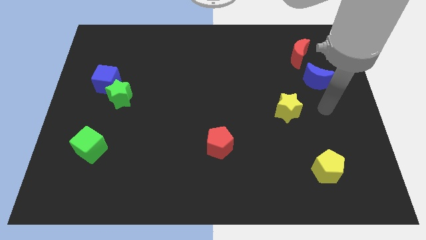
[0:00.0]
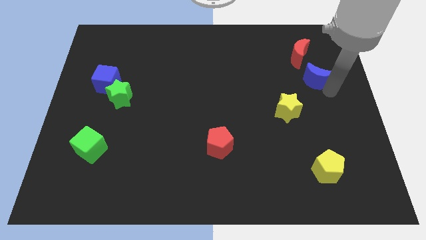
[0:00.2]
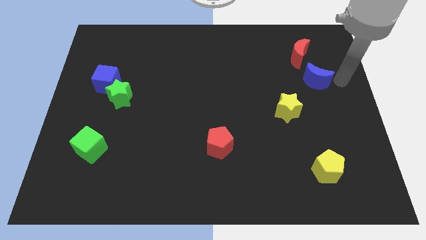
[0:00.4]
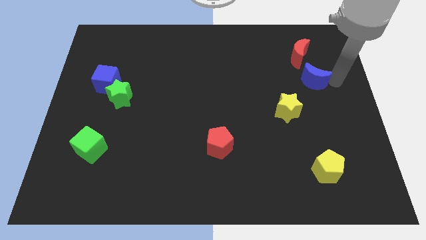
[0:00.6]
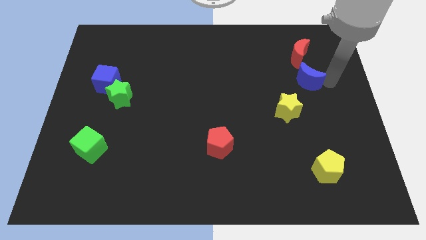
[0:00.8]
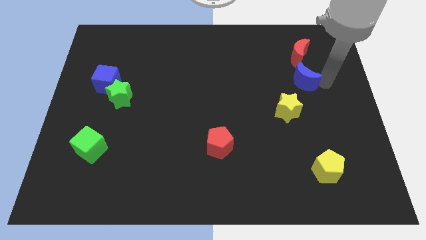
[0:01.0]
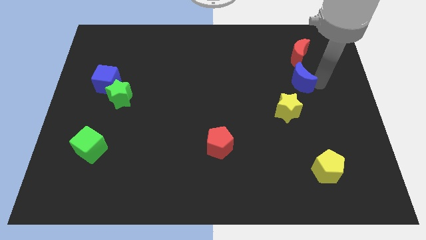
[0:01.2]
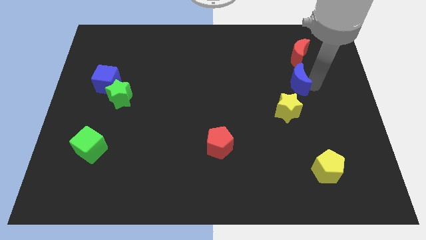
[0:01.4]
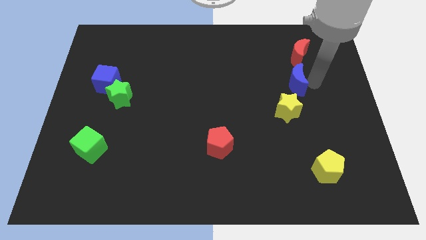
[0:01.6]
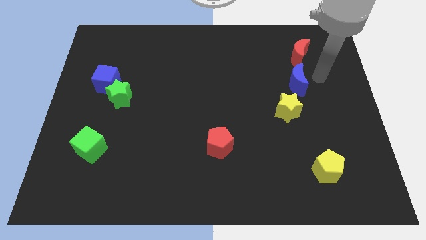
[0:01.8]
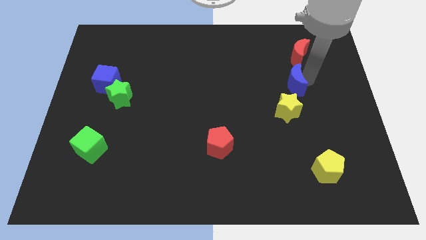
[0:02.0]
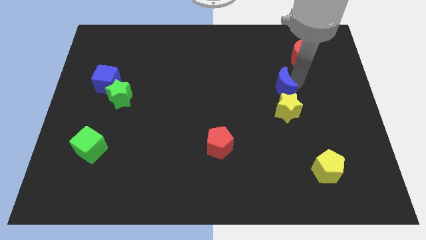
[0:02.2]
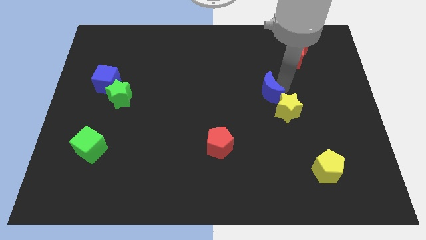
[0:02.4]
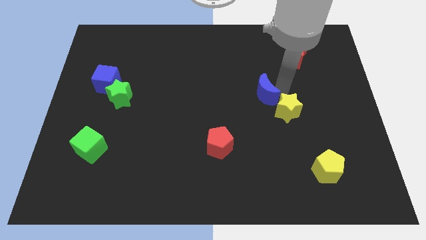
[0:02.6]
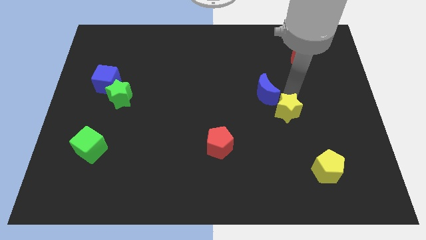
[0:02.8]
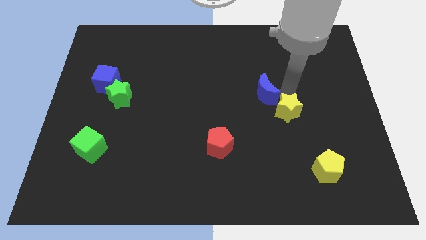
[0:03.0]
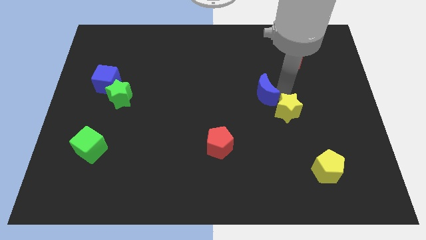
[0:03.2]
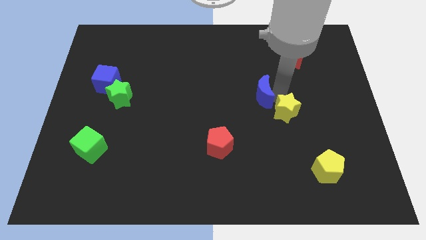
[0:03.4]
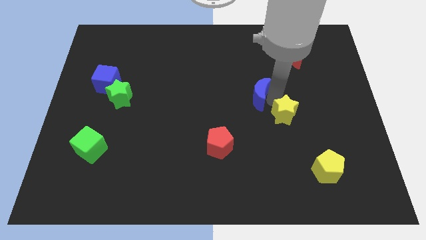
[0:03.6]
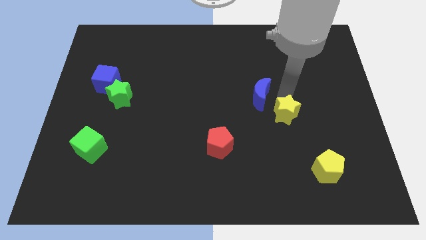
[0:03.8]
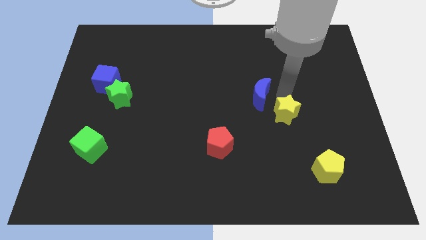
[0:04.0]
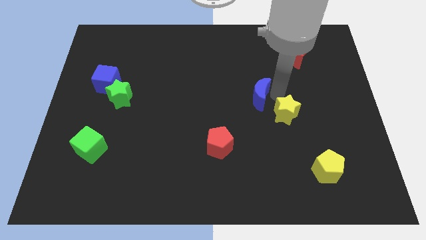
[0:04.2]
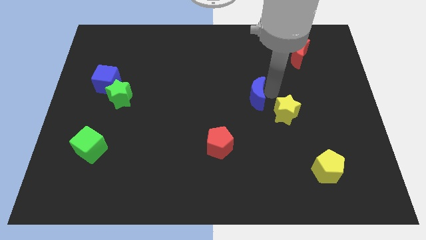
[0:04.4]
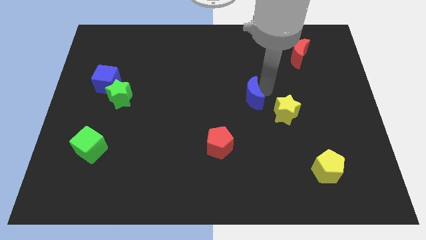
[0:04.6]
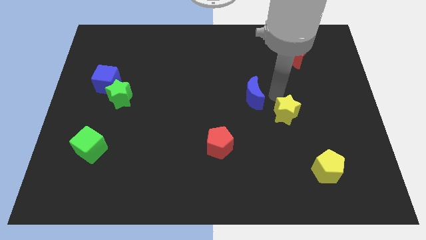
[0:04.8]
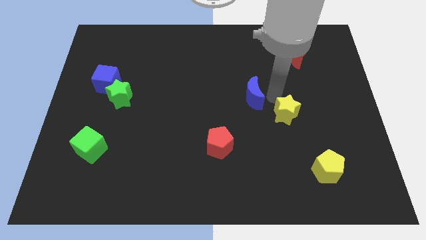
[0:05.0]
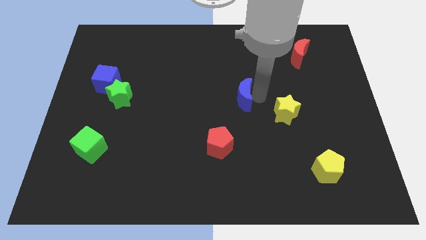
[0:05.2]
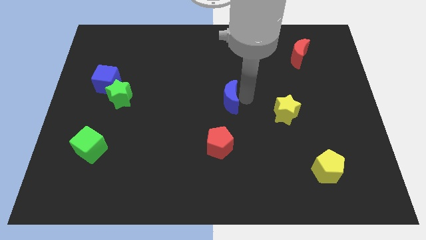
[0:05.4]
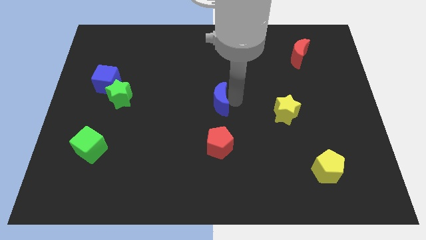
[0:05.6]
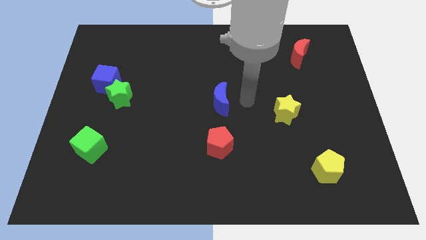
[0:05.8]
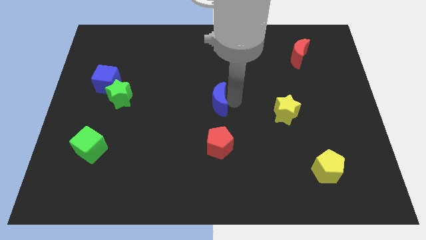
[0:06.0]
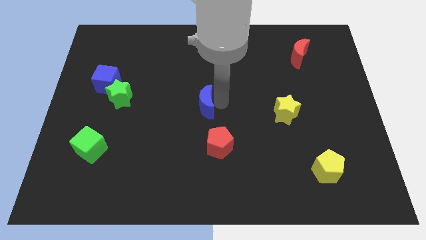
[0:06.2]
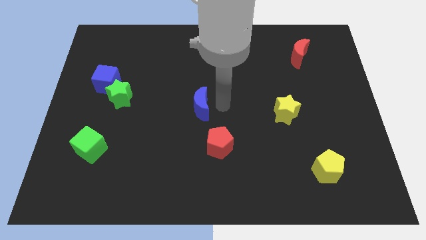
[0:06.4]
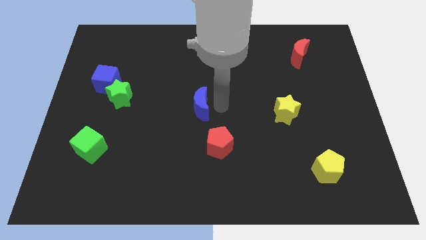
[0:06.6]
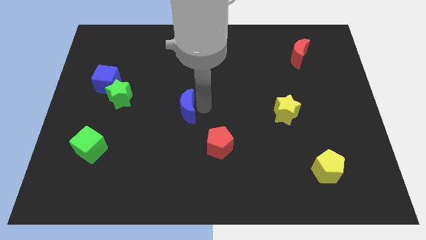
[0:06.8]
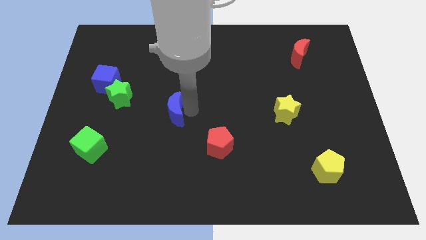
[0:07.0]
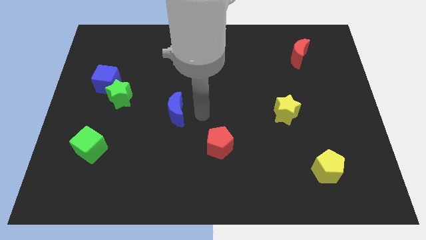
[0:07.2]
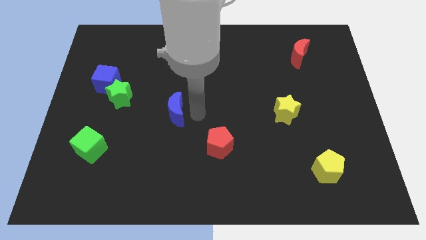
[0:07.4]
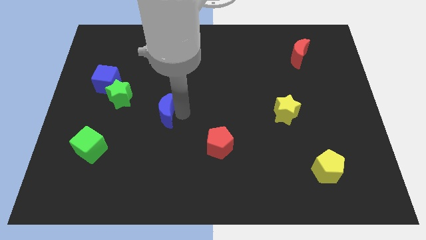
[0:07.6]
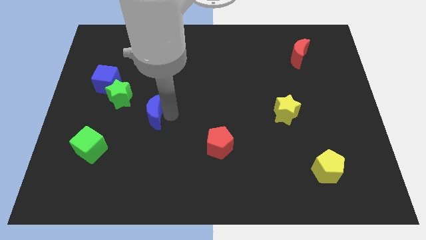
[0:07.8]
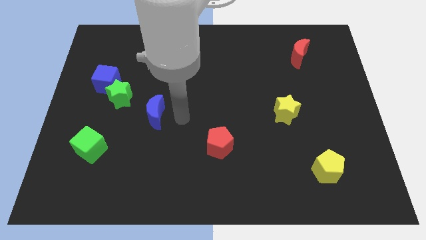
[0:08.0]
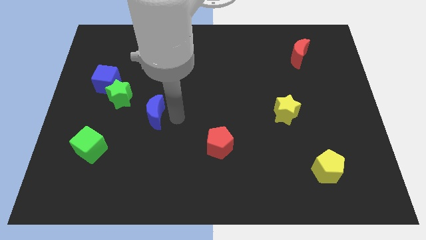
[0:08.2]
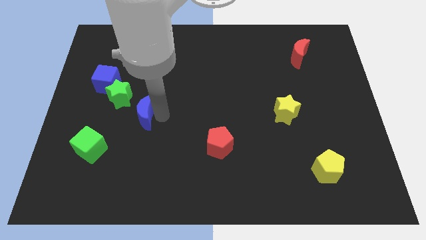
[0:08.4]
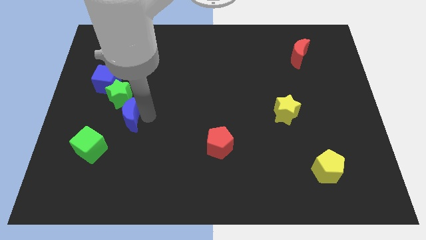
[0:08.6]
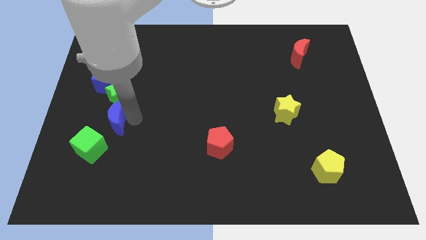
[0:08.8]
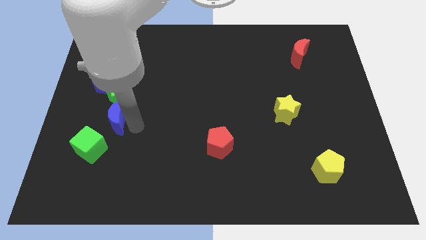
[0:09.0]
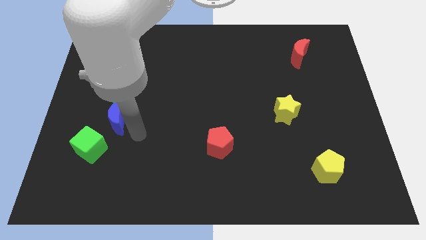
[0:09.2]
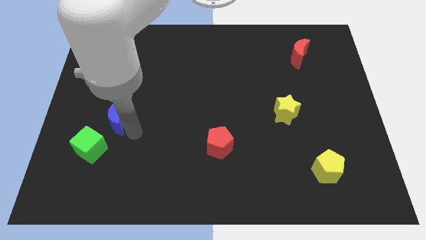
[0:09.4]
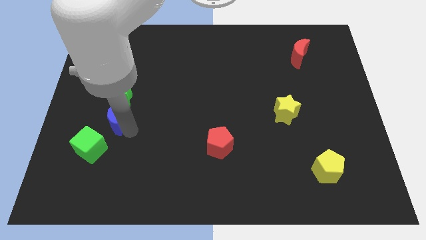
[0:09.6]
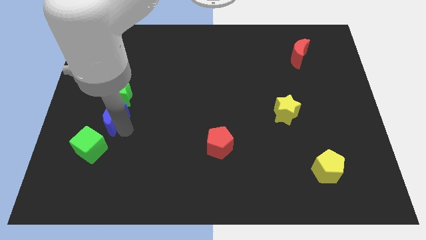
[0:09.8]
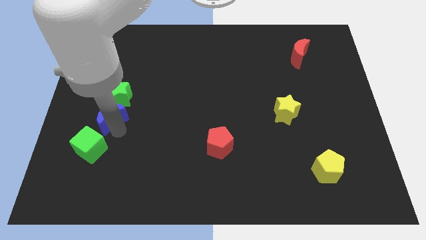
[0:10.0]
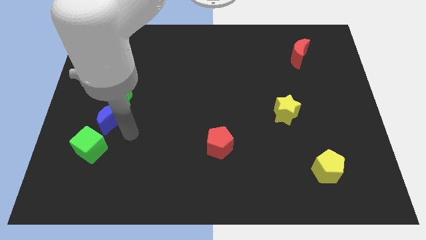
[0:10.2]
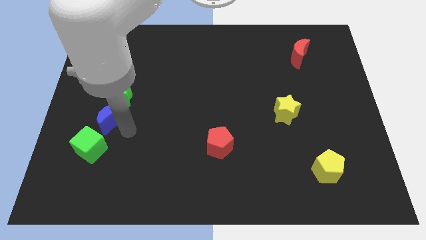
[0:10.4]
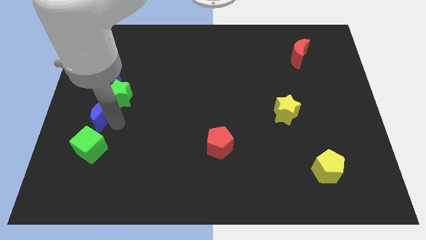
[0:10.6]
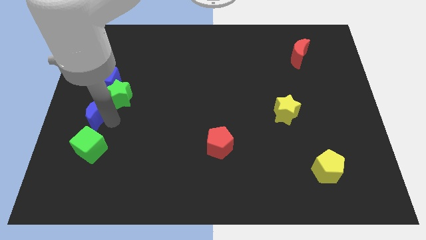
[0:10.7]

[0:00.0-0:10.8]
push the blue moon to the center left

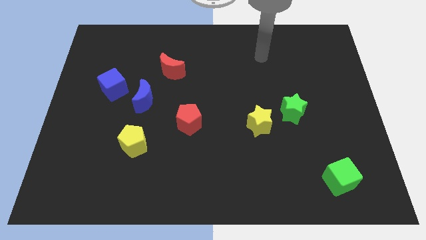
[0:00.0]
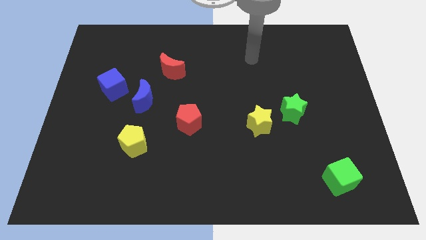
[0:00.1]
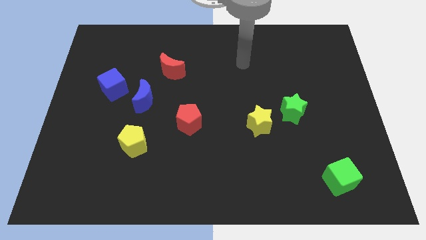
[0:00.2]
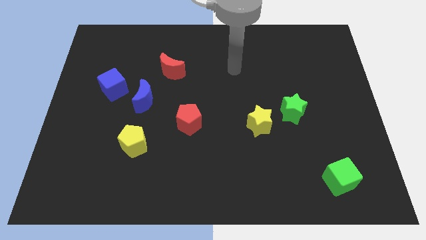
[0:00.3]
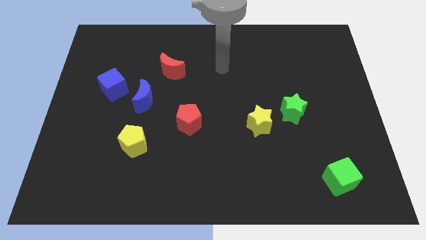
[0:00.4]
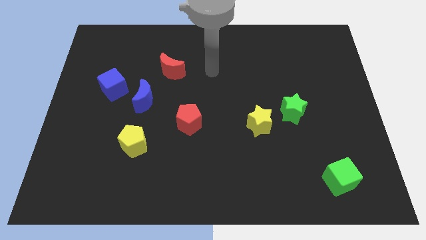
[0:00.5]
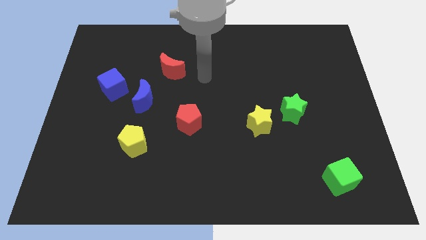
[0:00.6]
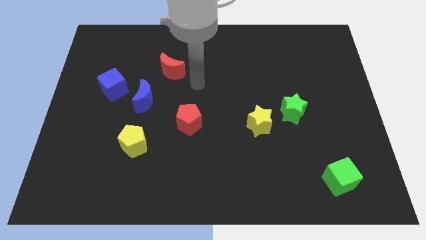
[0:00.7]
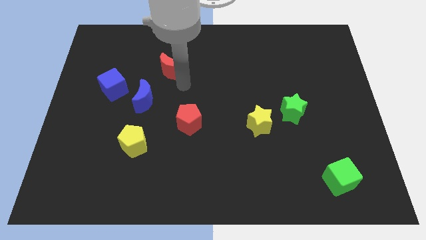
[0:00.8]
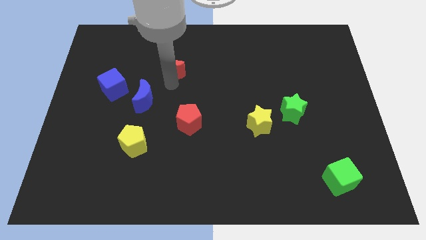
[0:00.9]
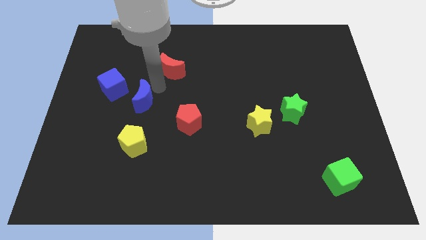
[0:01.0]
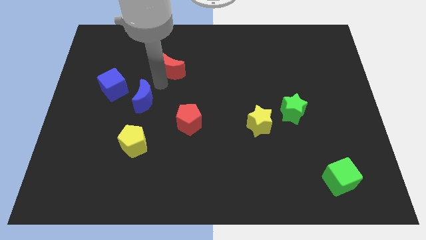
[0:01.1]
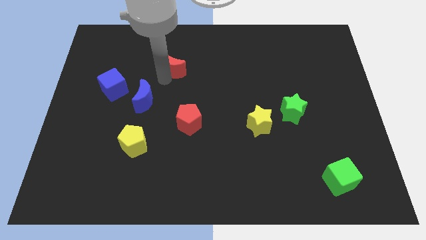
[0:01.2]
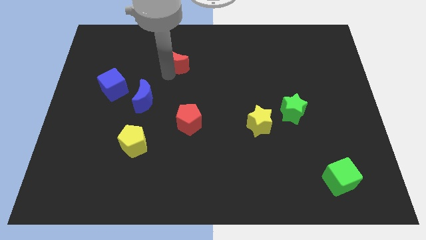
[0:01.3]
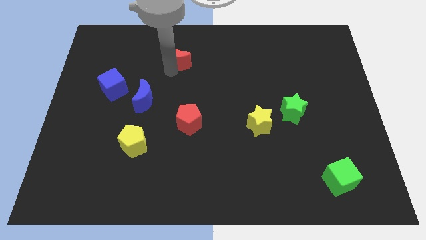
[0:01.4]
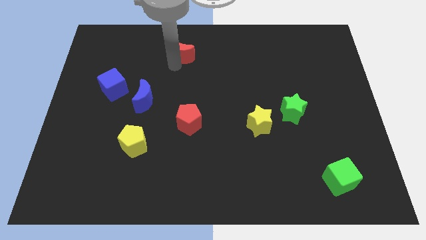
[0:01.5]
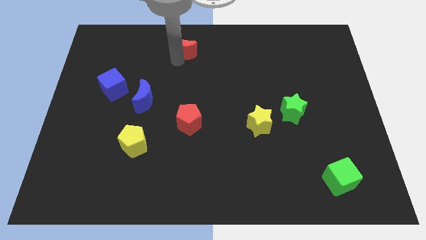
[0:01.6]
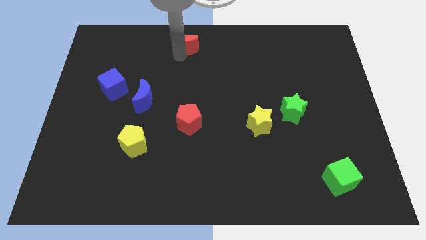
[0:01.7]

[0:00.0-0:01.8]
move the red moon to the top side

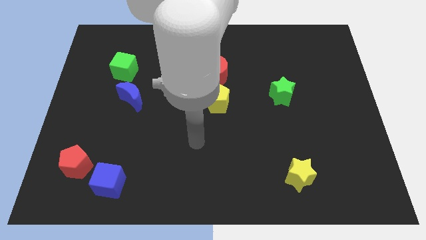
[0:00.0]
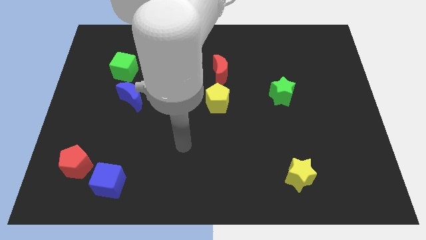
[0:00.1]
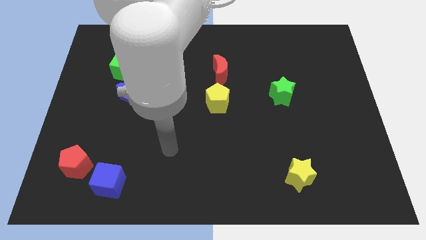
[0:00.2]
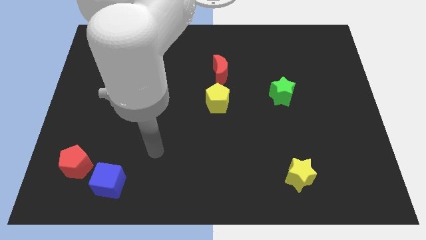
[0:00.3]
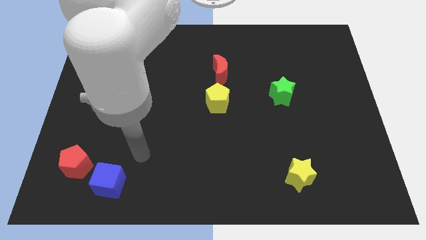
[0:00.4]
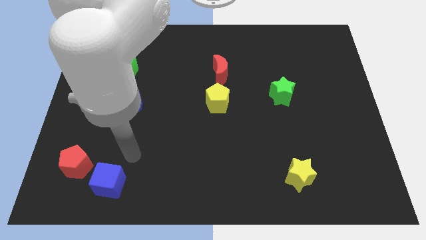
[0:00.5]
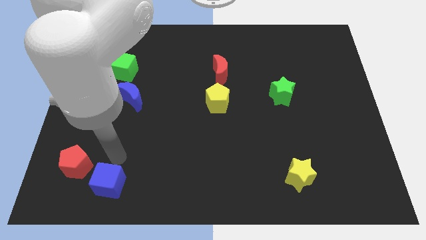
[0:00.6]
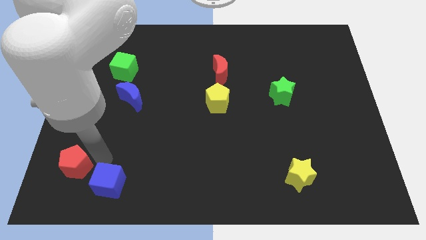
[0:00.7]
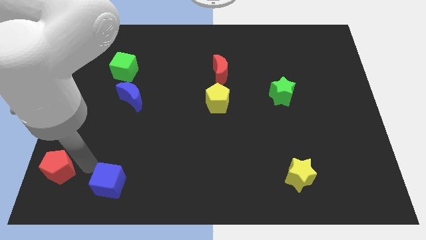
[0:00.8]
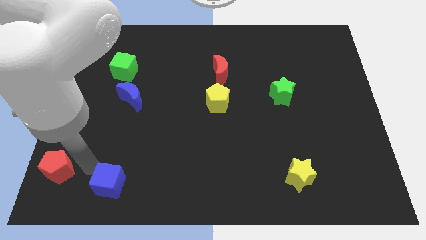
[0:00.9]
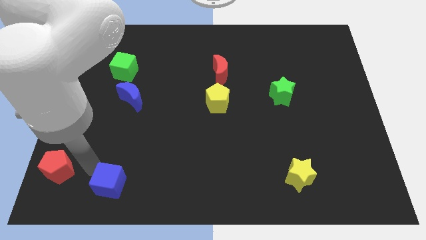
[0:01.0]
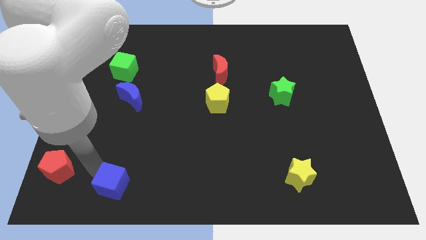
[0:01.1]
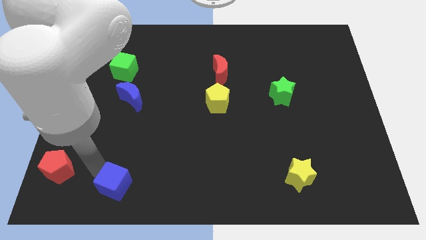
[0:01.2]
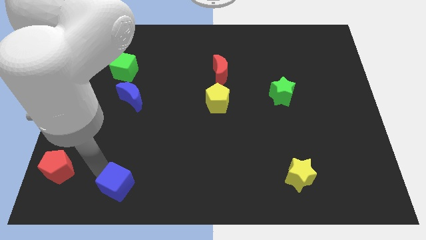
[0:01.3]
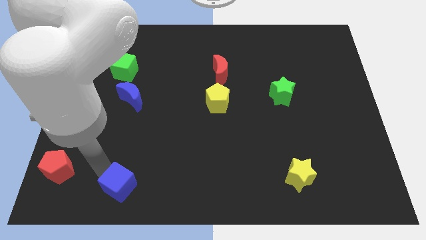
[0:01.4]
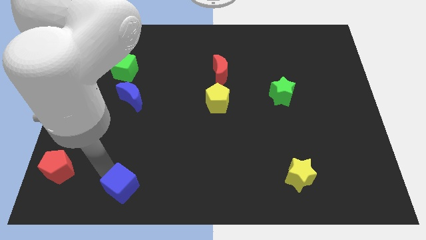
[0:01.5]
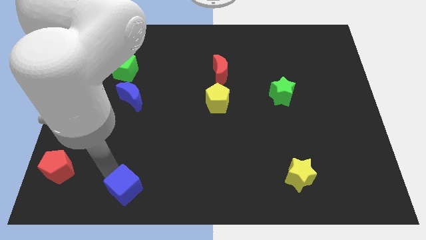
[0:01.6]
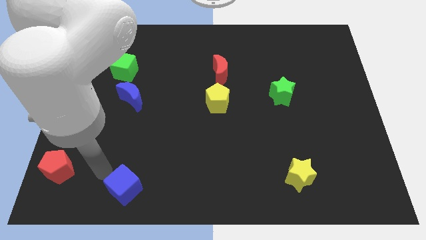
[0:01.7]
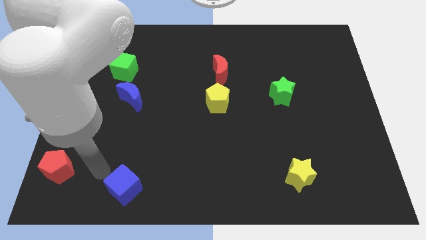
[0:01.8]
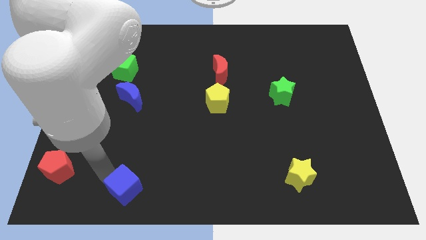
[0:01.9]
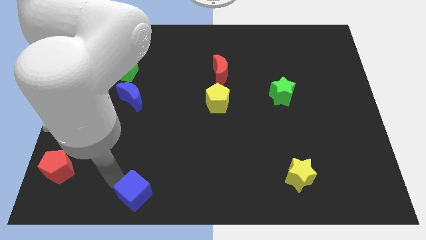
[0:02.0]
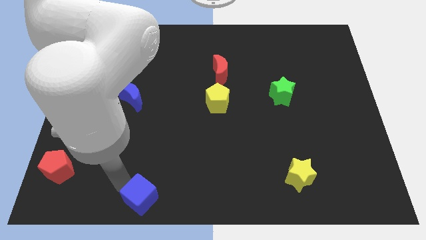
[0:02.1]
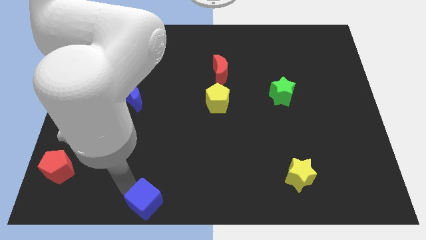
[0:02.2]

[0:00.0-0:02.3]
move the blue cube to the bottom
